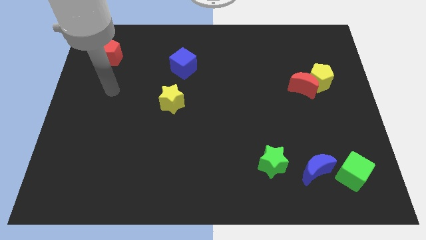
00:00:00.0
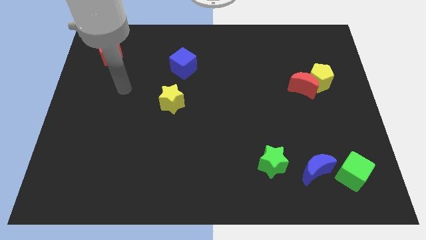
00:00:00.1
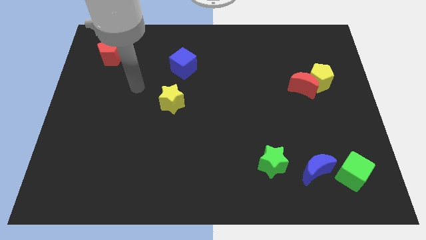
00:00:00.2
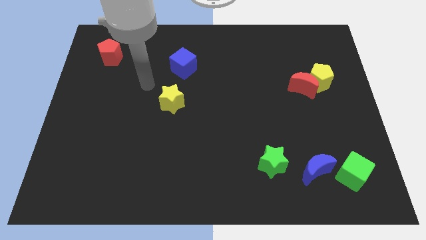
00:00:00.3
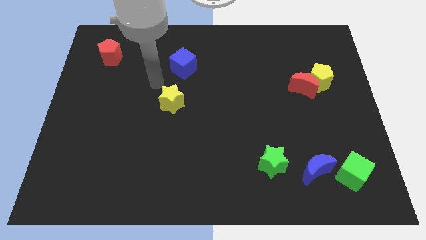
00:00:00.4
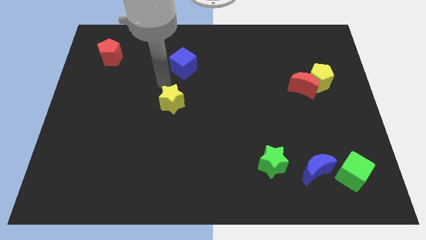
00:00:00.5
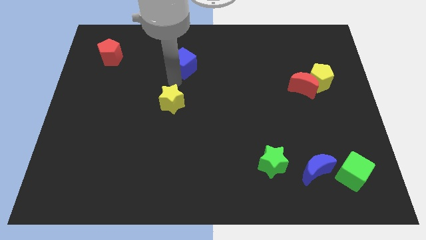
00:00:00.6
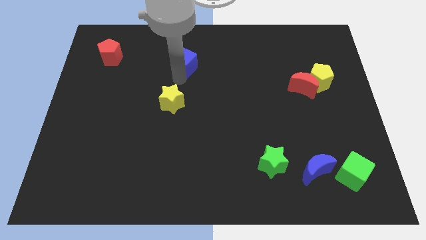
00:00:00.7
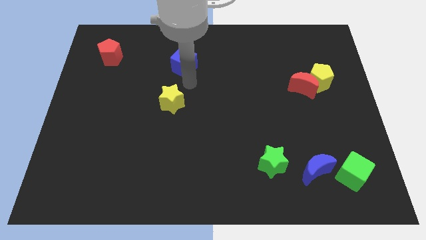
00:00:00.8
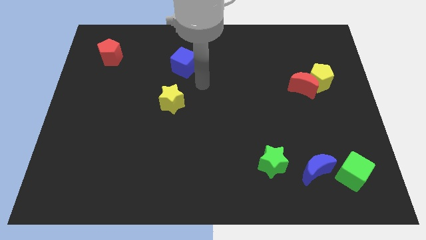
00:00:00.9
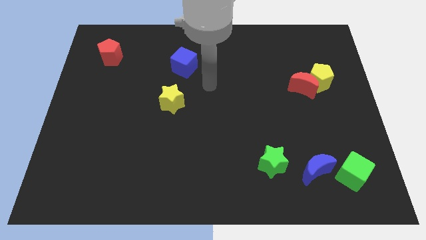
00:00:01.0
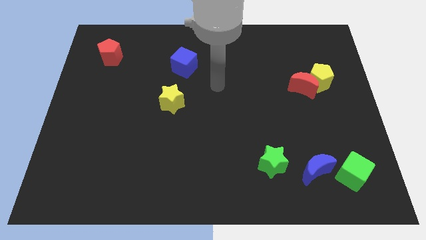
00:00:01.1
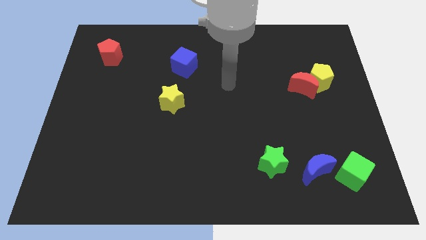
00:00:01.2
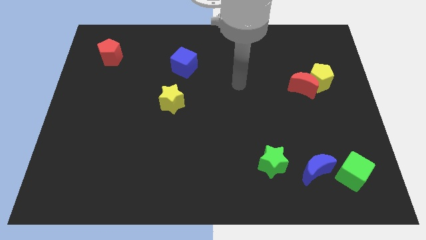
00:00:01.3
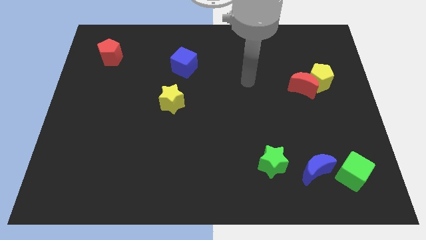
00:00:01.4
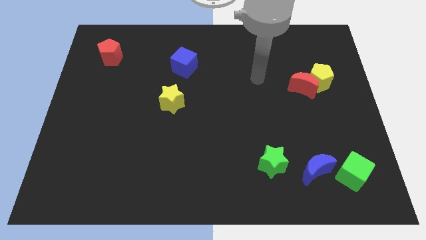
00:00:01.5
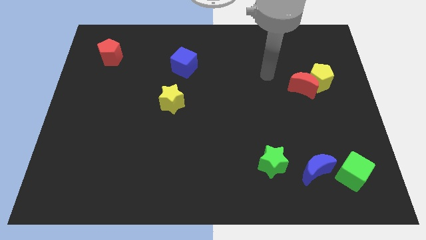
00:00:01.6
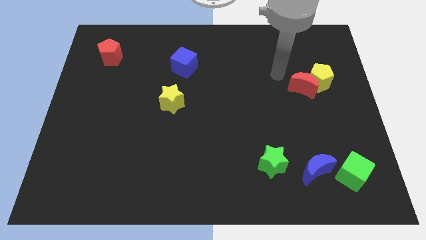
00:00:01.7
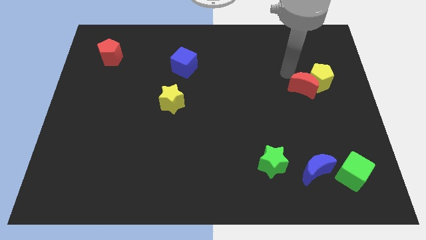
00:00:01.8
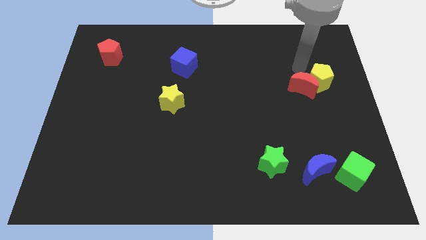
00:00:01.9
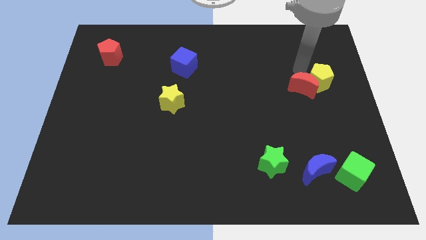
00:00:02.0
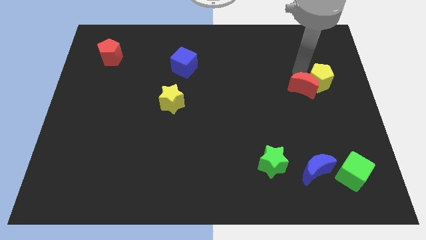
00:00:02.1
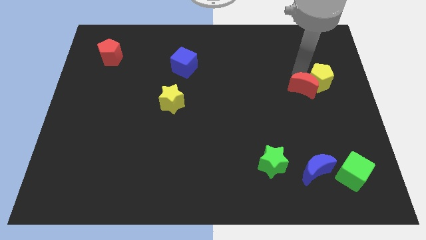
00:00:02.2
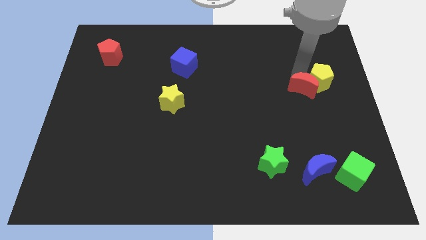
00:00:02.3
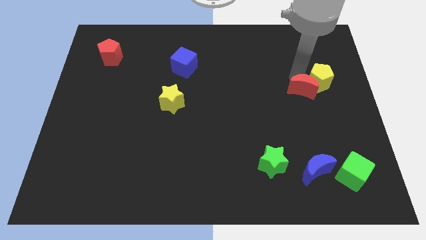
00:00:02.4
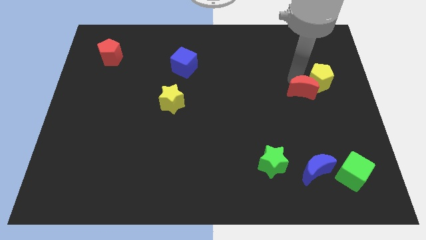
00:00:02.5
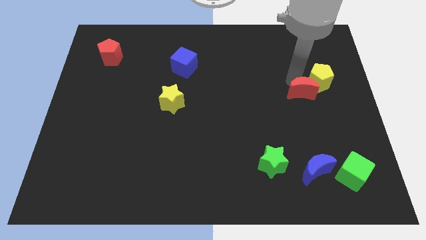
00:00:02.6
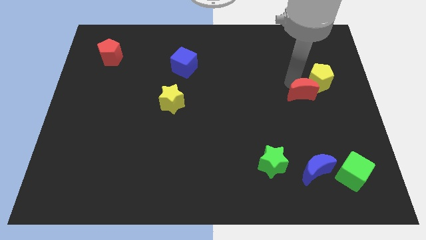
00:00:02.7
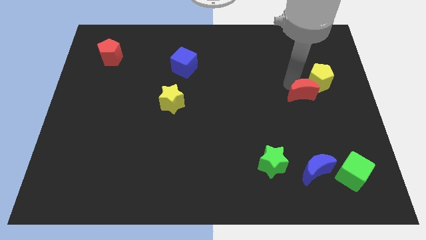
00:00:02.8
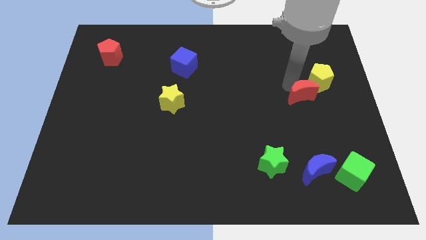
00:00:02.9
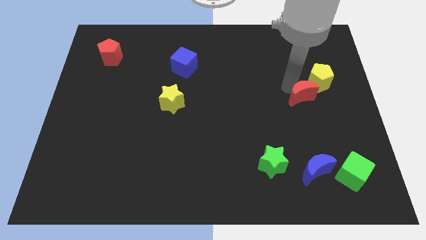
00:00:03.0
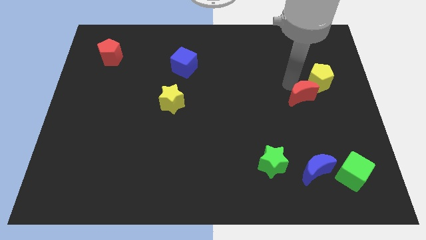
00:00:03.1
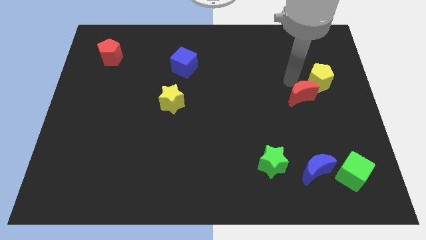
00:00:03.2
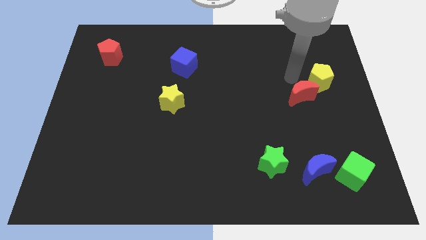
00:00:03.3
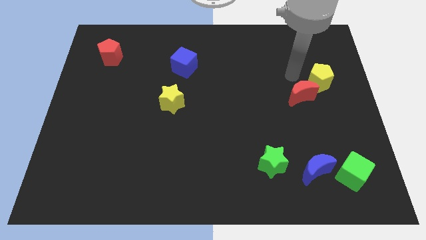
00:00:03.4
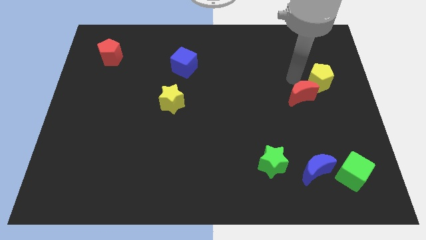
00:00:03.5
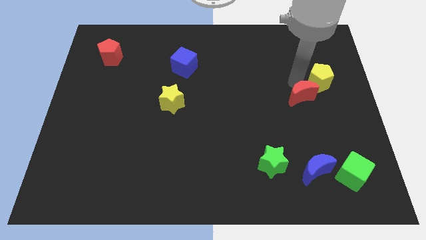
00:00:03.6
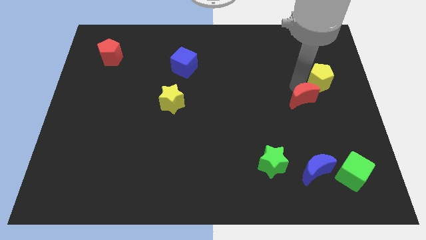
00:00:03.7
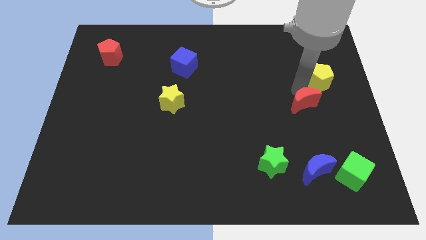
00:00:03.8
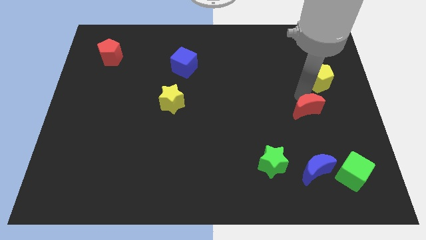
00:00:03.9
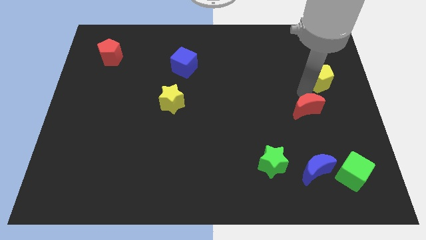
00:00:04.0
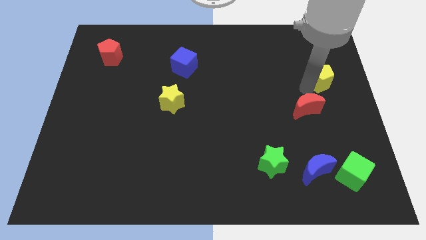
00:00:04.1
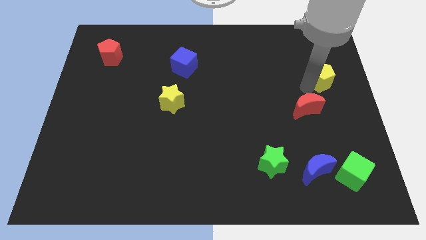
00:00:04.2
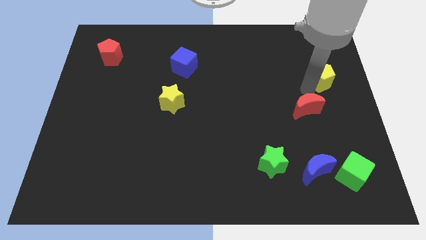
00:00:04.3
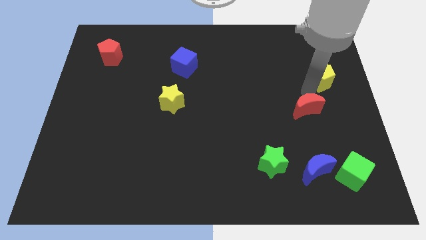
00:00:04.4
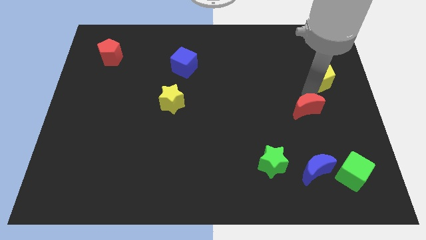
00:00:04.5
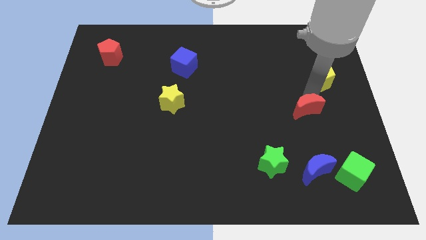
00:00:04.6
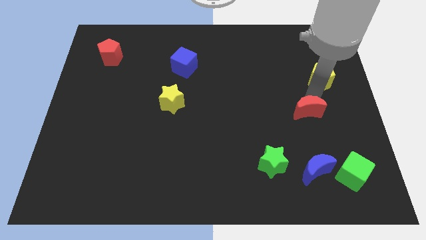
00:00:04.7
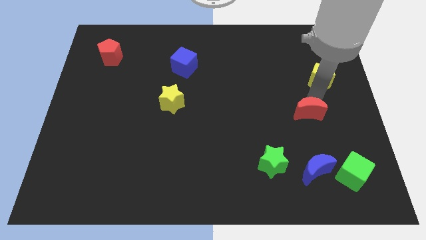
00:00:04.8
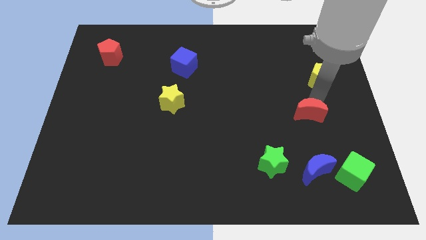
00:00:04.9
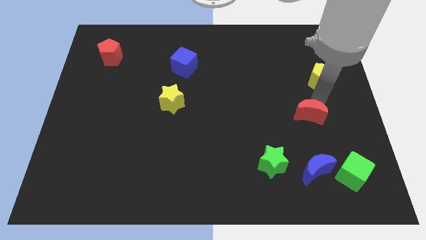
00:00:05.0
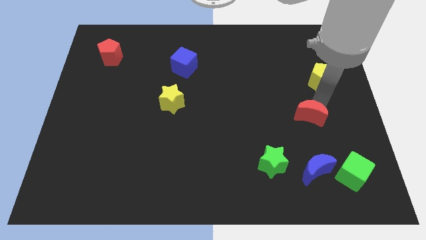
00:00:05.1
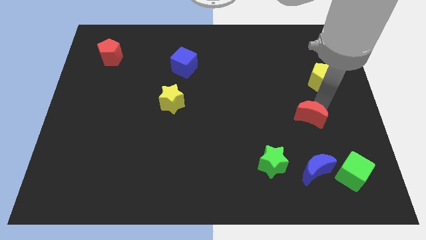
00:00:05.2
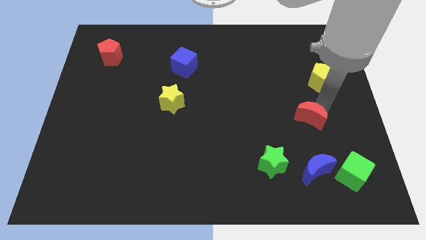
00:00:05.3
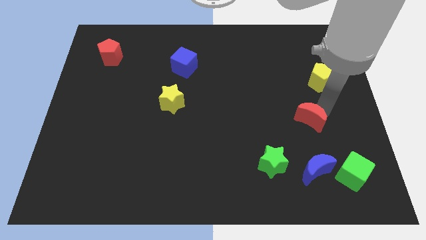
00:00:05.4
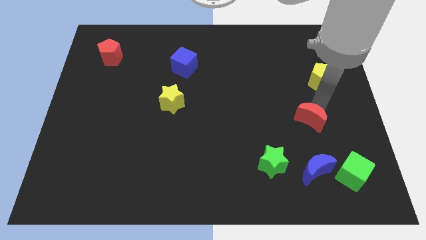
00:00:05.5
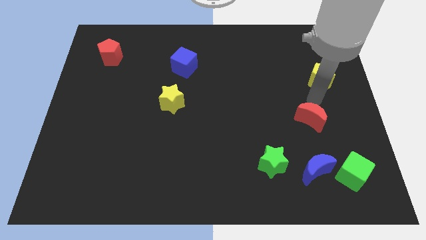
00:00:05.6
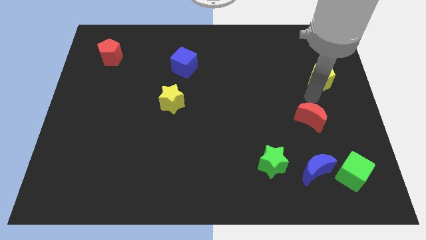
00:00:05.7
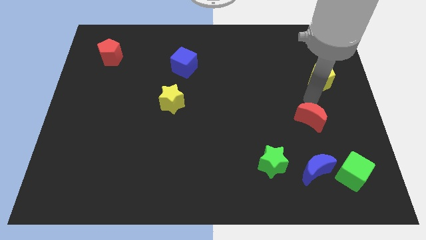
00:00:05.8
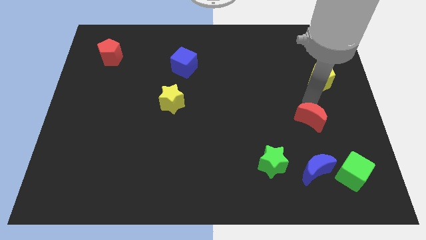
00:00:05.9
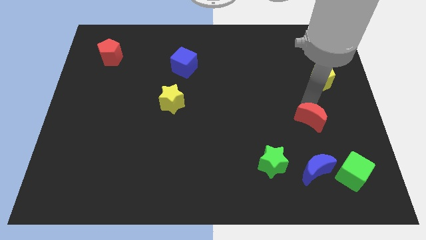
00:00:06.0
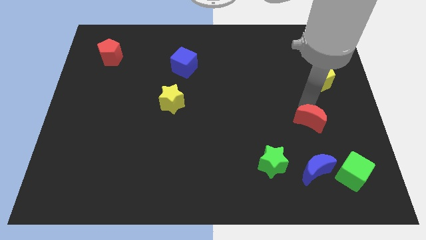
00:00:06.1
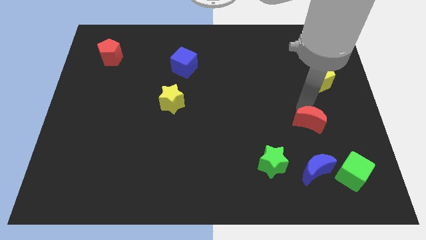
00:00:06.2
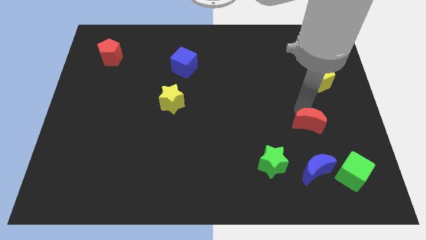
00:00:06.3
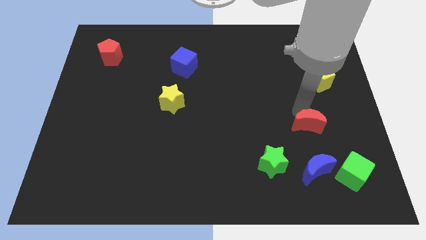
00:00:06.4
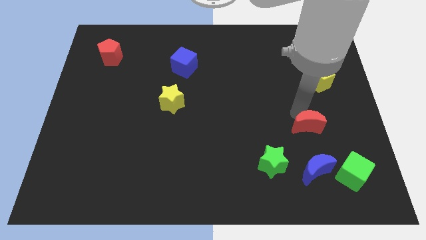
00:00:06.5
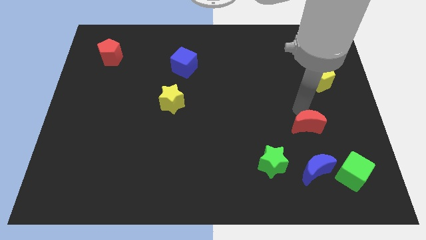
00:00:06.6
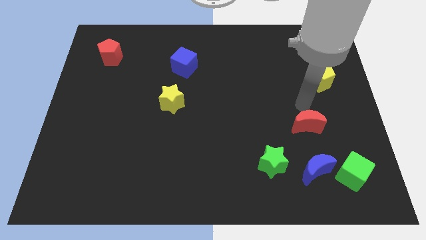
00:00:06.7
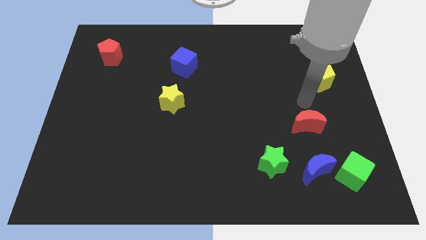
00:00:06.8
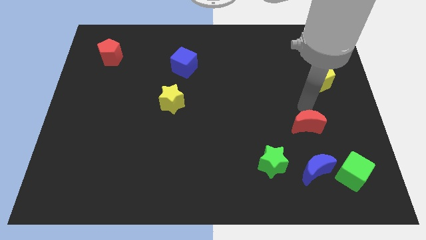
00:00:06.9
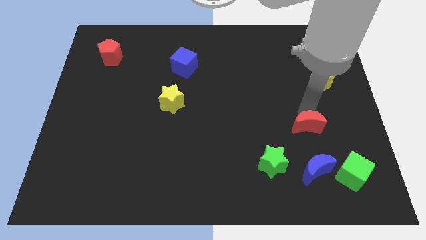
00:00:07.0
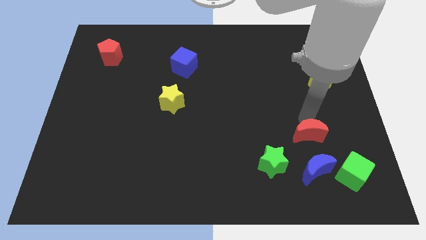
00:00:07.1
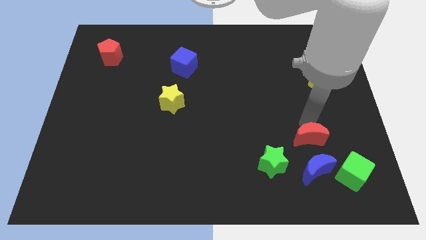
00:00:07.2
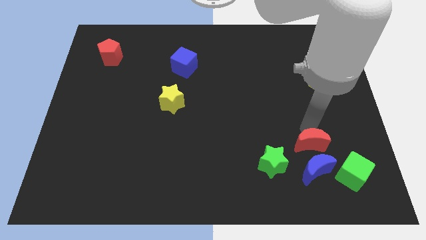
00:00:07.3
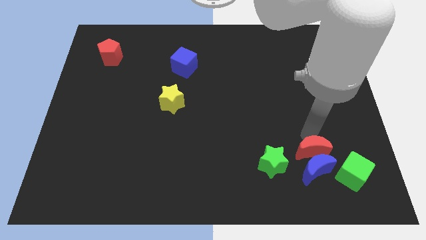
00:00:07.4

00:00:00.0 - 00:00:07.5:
move the red moon towards the blue moon

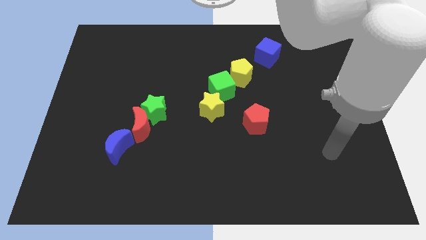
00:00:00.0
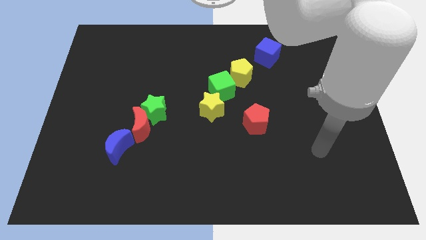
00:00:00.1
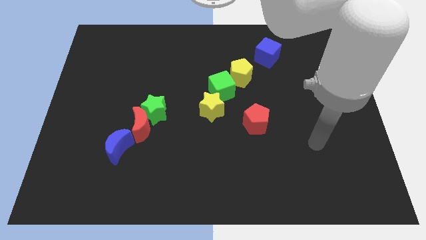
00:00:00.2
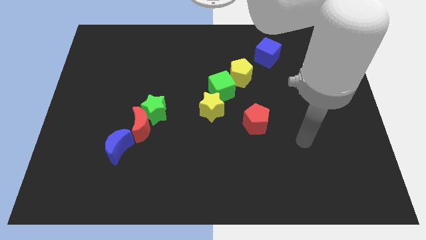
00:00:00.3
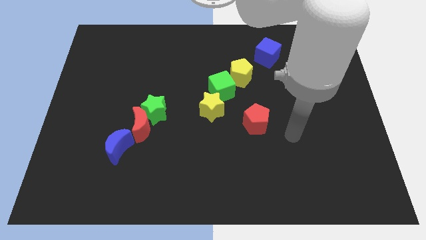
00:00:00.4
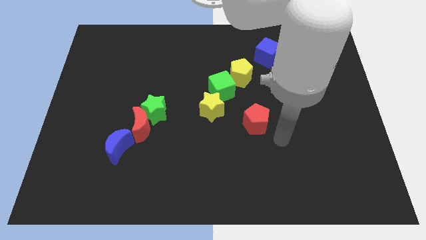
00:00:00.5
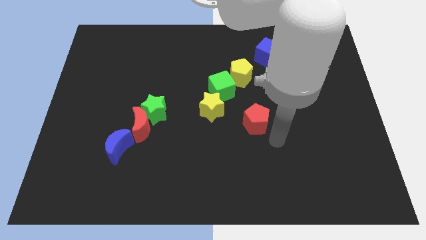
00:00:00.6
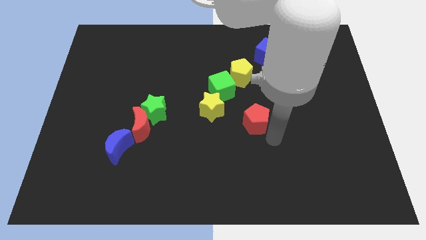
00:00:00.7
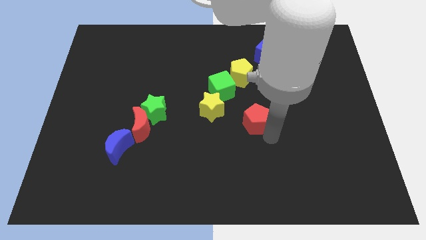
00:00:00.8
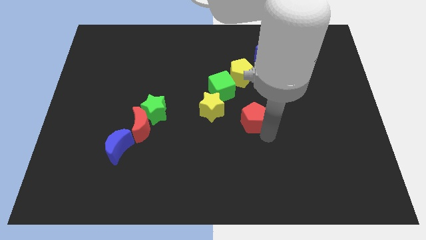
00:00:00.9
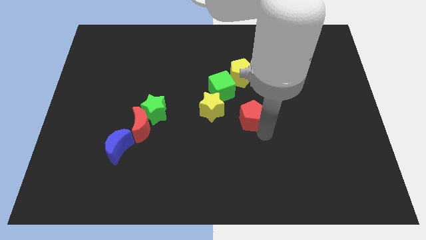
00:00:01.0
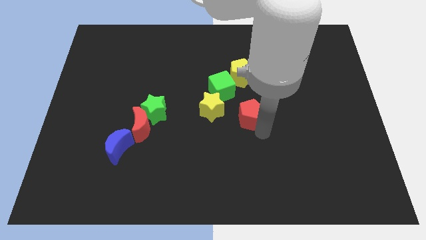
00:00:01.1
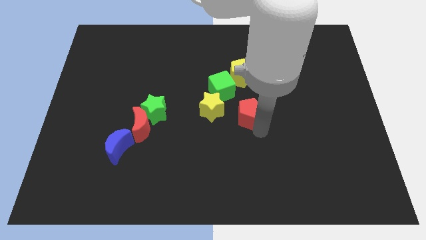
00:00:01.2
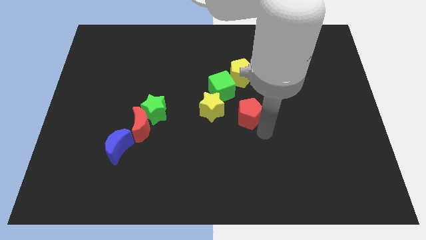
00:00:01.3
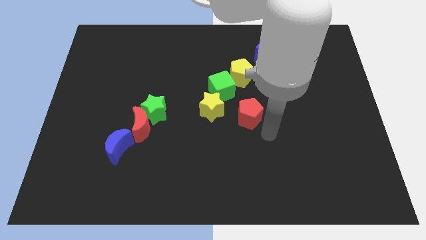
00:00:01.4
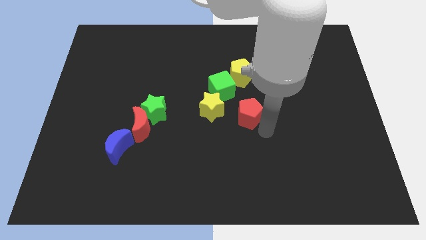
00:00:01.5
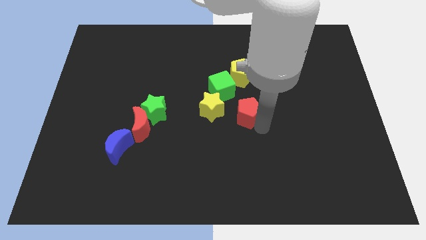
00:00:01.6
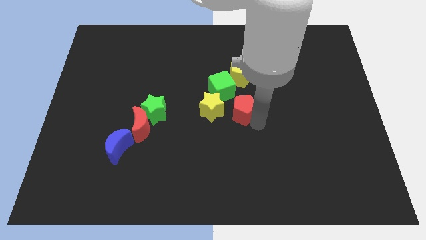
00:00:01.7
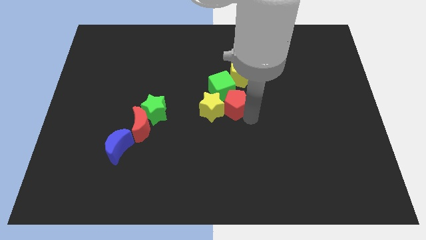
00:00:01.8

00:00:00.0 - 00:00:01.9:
push the red pentagon next to the green cube
